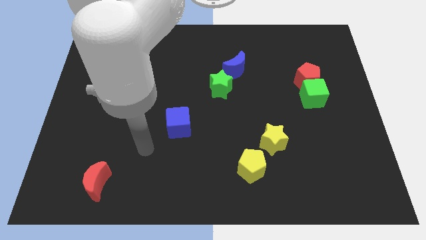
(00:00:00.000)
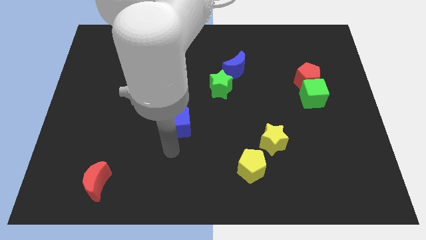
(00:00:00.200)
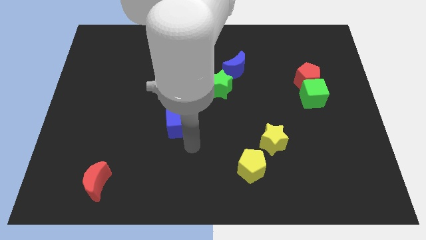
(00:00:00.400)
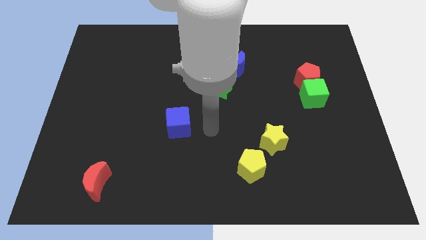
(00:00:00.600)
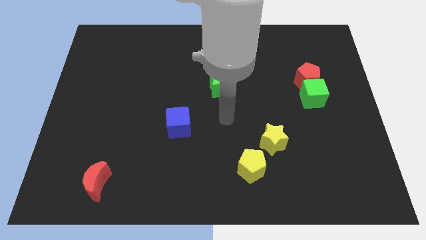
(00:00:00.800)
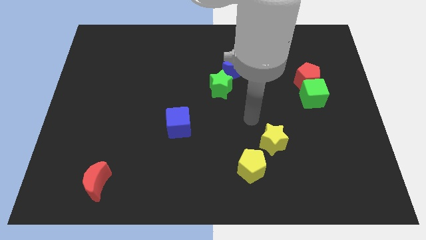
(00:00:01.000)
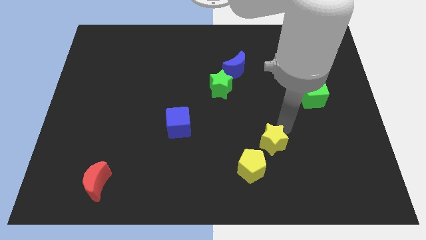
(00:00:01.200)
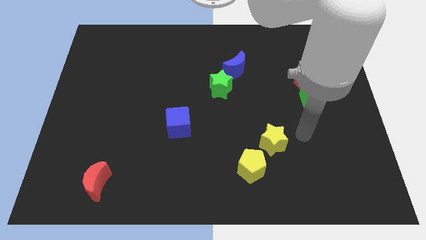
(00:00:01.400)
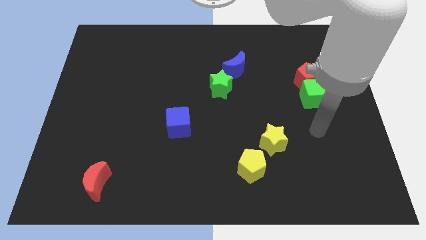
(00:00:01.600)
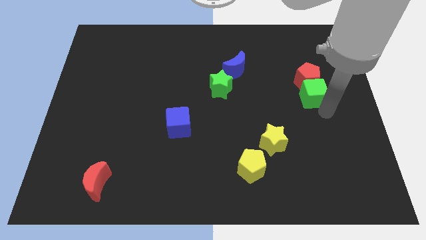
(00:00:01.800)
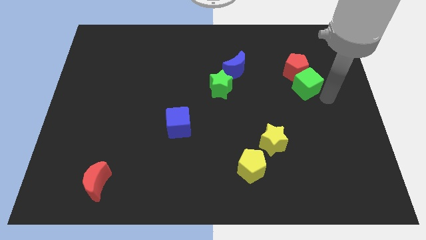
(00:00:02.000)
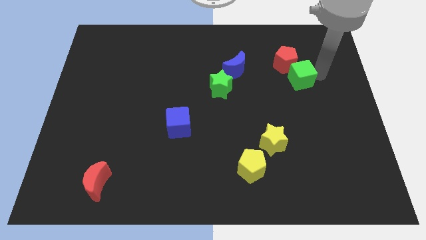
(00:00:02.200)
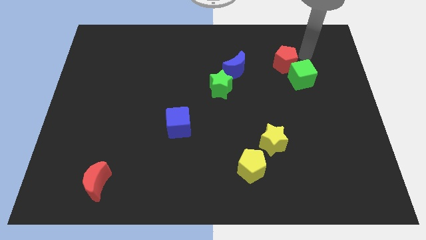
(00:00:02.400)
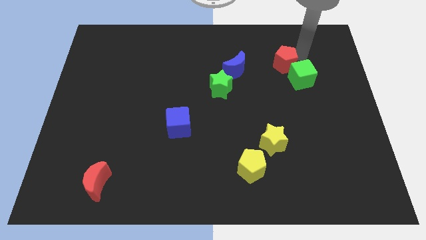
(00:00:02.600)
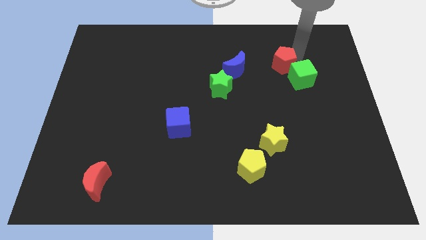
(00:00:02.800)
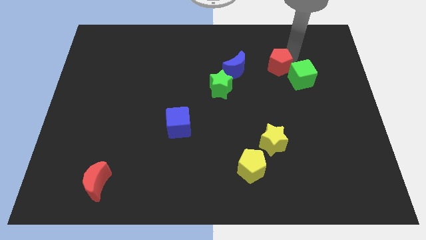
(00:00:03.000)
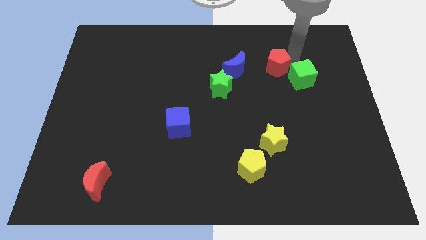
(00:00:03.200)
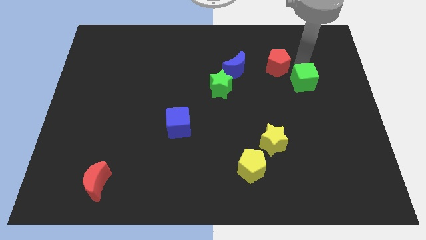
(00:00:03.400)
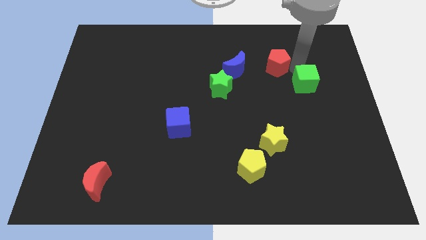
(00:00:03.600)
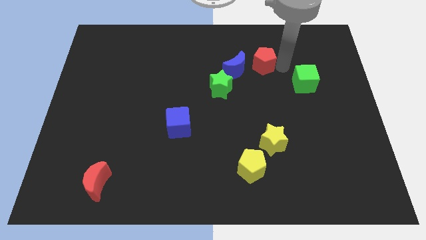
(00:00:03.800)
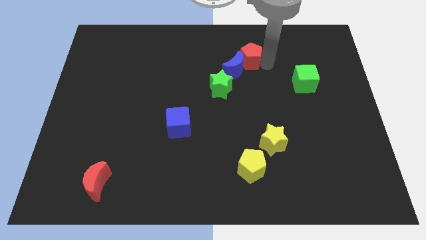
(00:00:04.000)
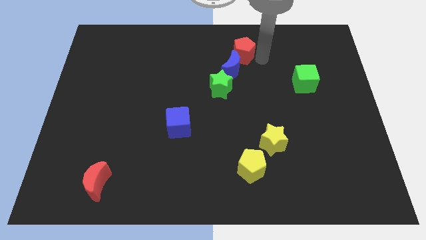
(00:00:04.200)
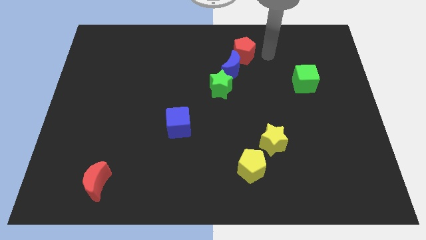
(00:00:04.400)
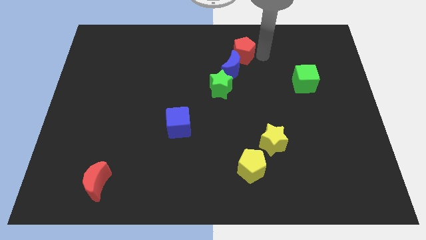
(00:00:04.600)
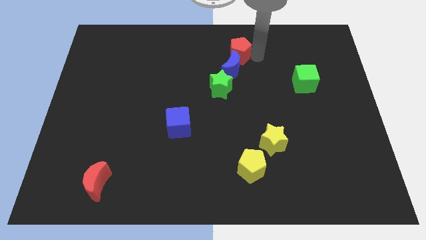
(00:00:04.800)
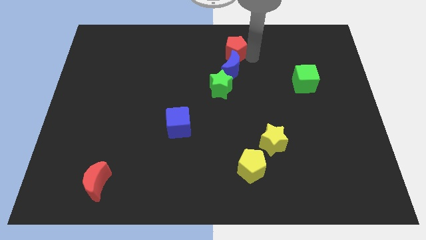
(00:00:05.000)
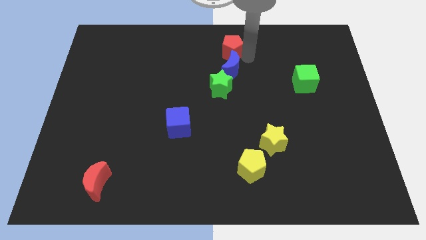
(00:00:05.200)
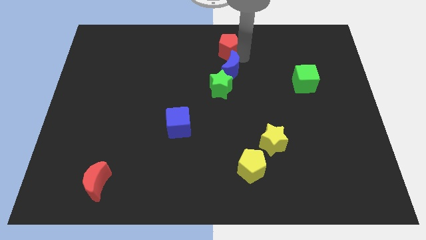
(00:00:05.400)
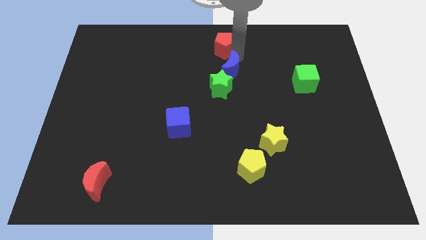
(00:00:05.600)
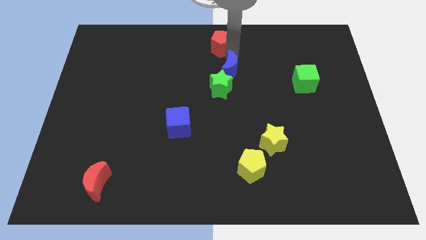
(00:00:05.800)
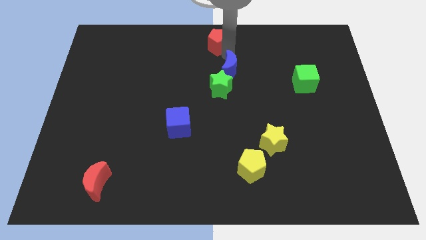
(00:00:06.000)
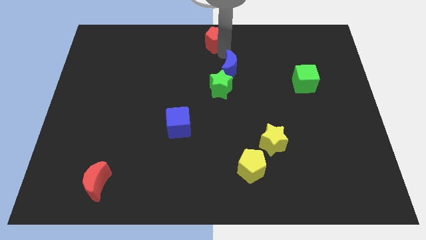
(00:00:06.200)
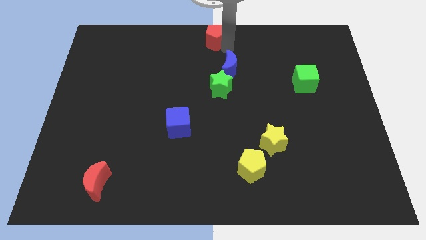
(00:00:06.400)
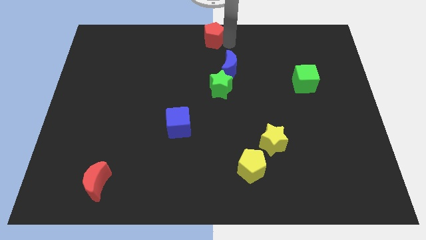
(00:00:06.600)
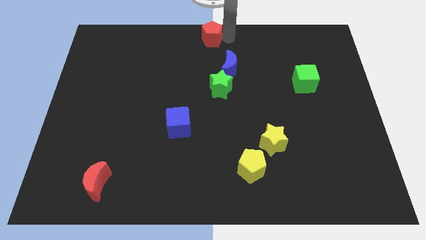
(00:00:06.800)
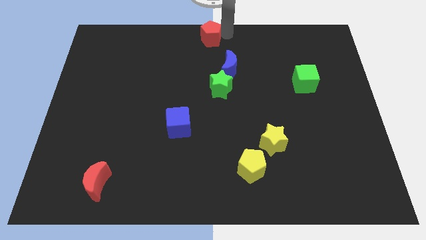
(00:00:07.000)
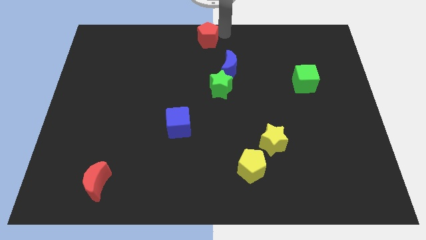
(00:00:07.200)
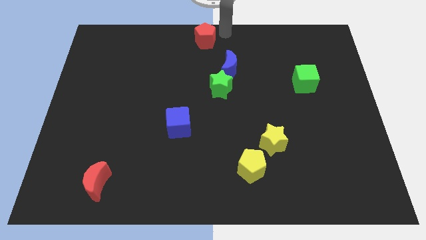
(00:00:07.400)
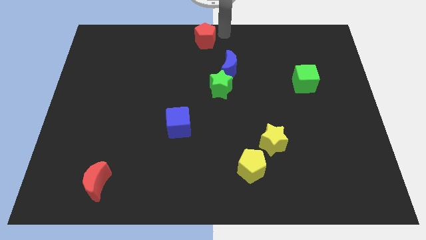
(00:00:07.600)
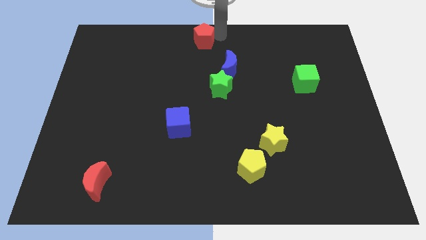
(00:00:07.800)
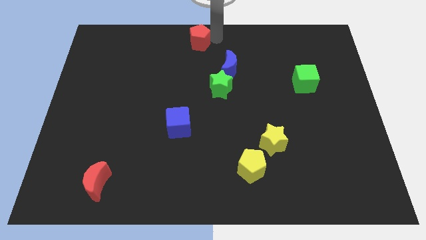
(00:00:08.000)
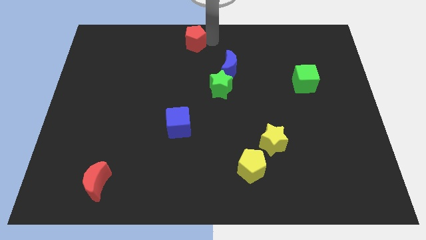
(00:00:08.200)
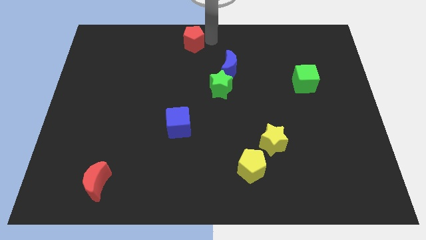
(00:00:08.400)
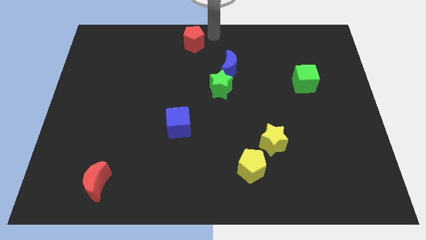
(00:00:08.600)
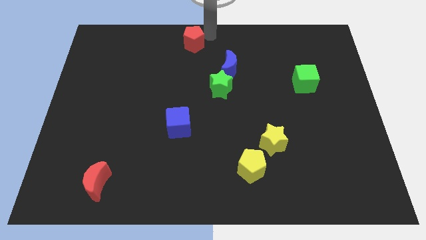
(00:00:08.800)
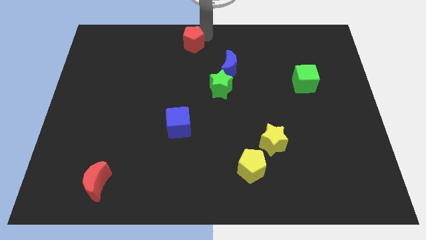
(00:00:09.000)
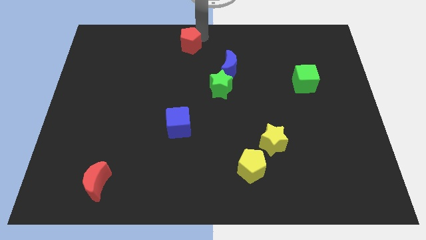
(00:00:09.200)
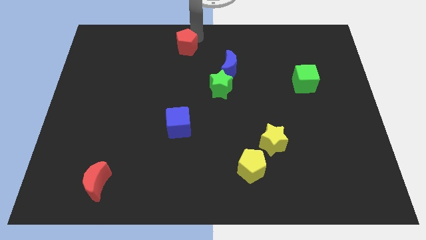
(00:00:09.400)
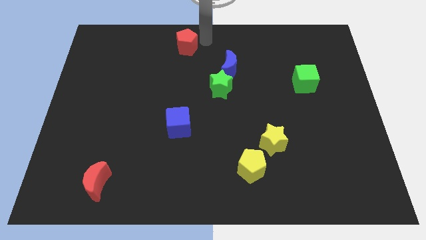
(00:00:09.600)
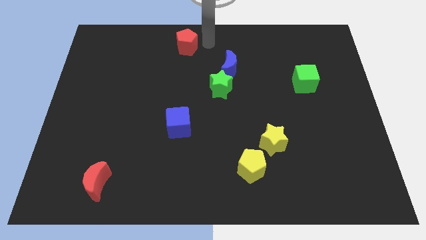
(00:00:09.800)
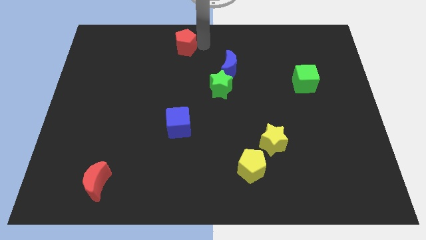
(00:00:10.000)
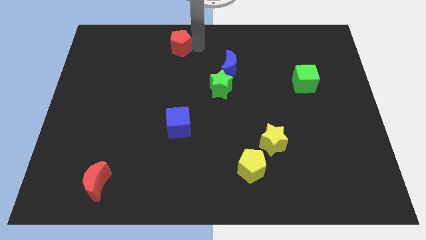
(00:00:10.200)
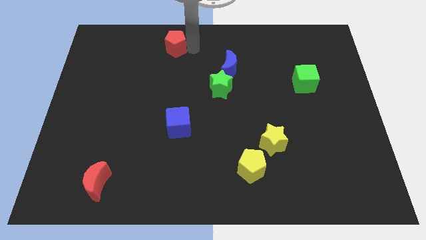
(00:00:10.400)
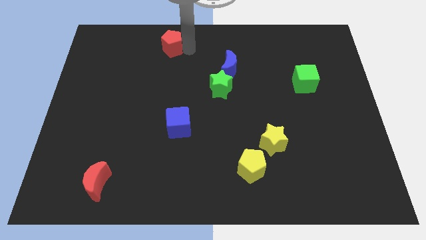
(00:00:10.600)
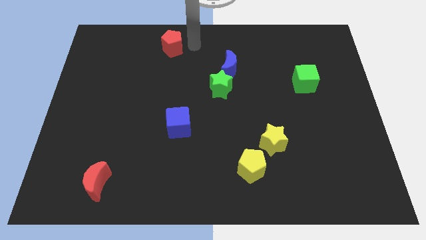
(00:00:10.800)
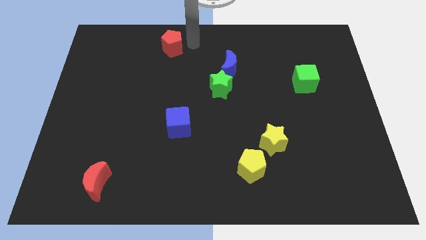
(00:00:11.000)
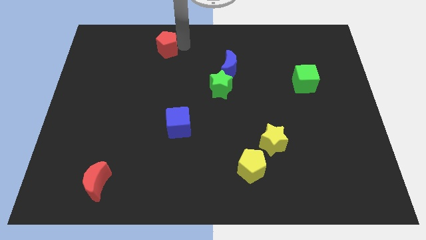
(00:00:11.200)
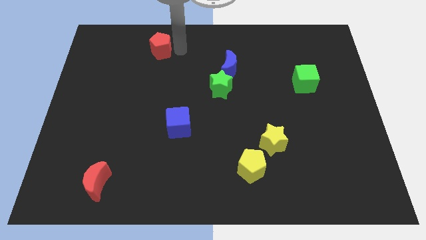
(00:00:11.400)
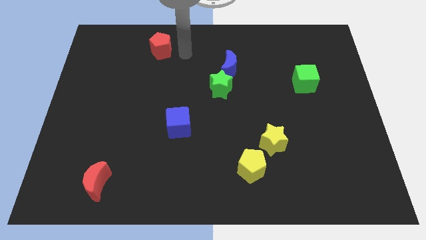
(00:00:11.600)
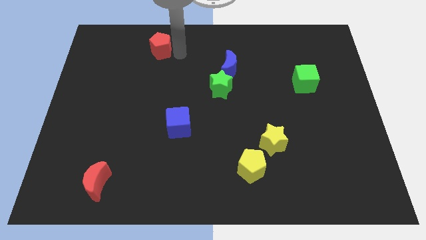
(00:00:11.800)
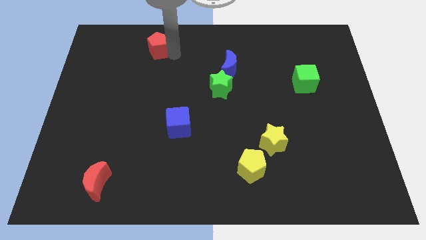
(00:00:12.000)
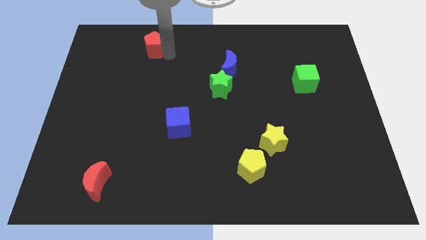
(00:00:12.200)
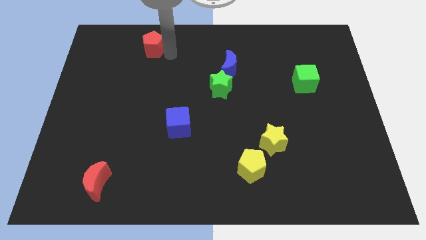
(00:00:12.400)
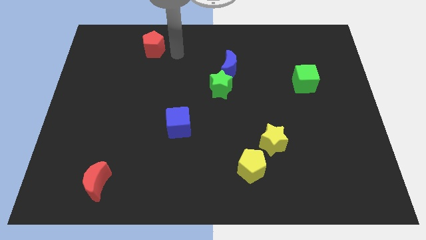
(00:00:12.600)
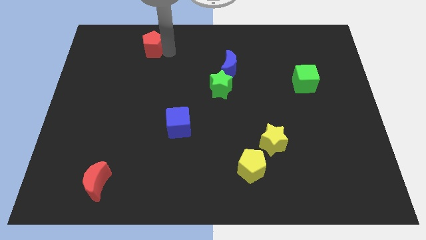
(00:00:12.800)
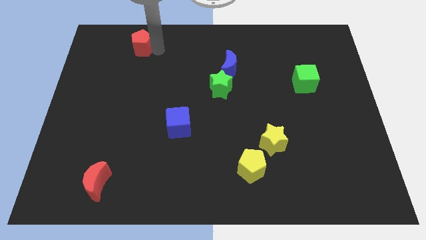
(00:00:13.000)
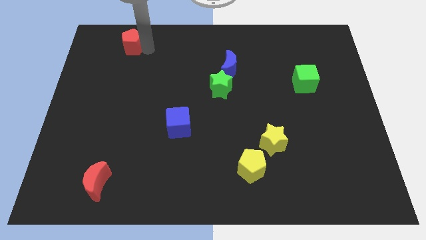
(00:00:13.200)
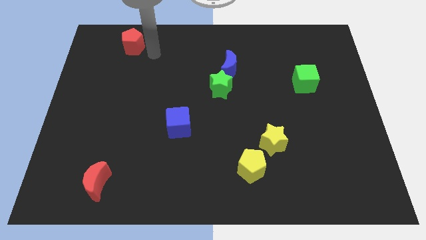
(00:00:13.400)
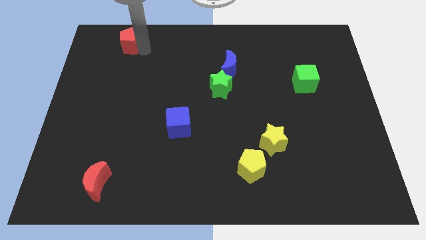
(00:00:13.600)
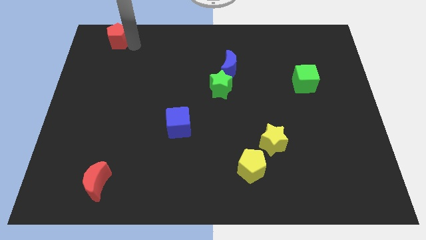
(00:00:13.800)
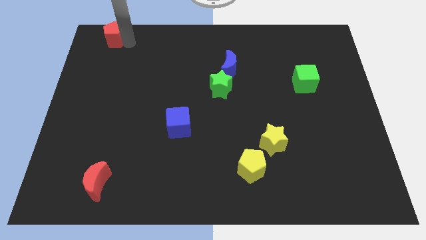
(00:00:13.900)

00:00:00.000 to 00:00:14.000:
put the red pentagon to the top left
